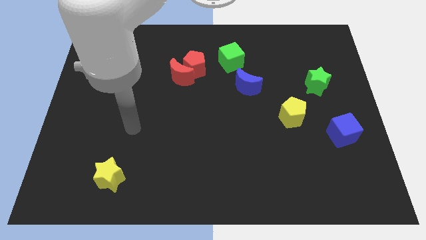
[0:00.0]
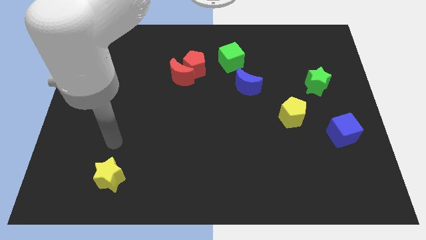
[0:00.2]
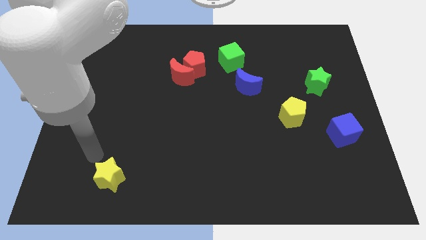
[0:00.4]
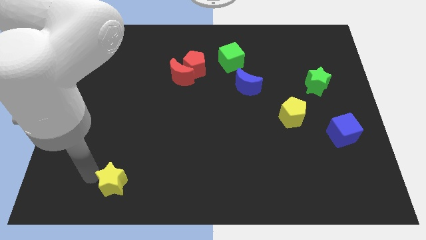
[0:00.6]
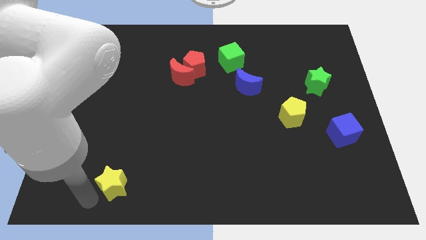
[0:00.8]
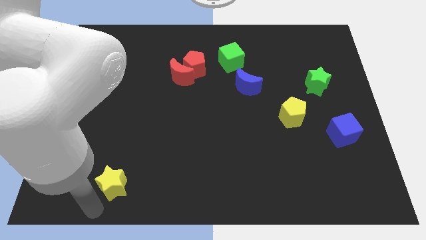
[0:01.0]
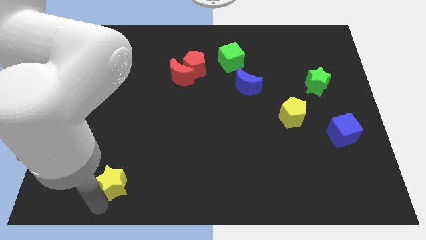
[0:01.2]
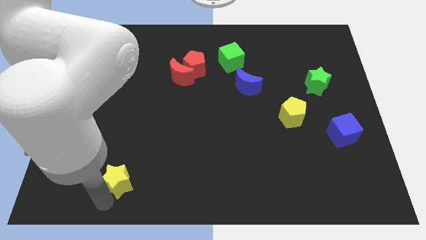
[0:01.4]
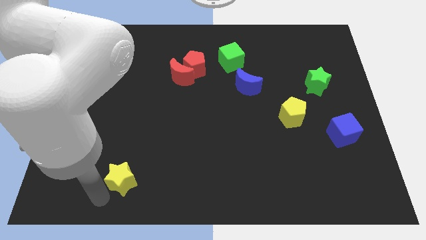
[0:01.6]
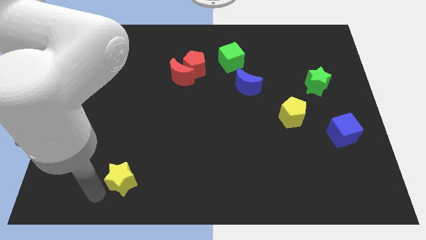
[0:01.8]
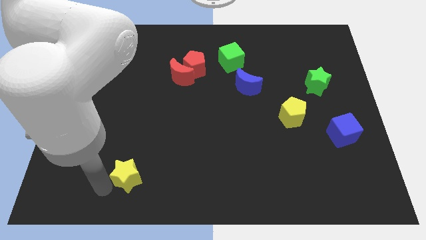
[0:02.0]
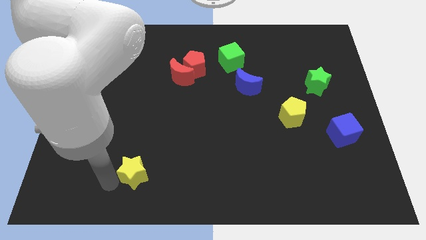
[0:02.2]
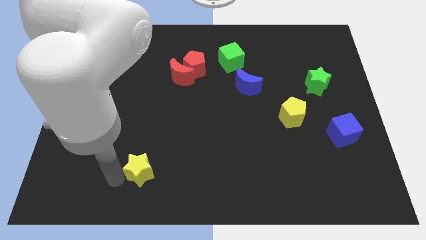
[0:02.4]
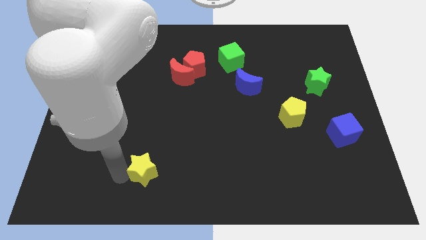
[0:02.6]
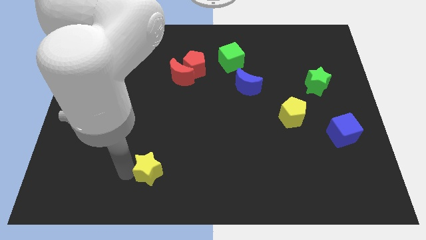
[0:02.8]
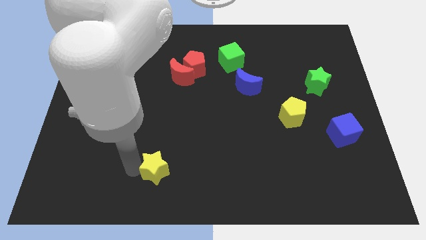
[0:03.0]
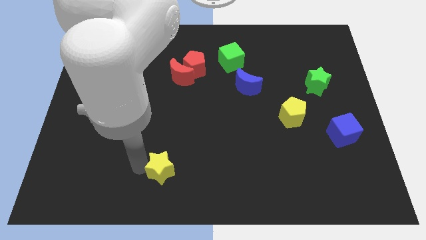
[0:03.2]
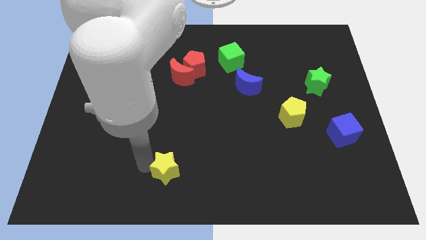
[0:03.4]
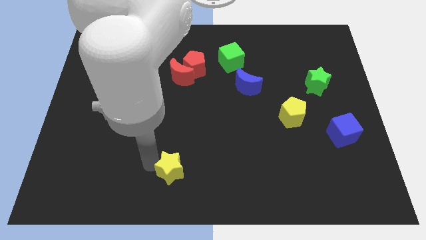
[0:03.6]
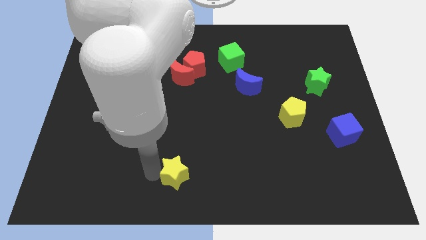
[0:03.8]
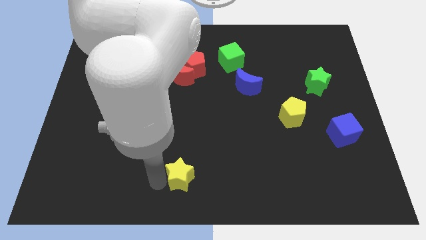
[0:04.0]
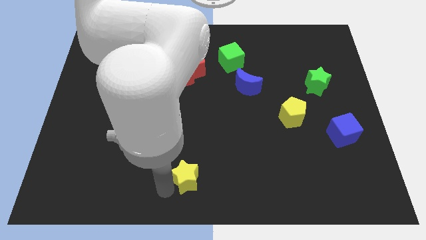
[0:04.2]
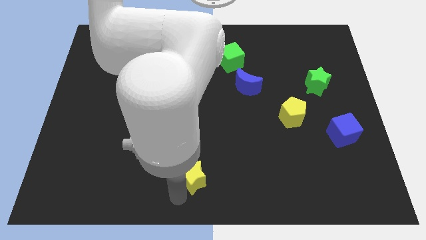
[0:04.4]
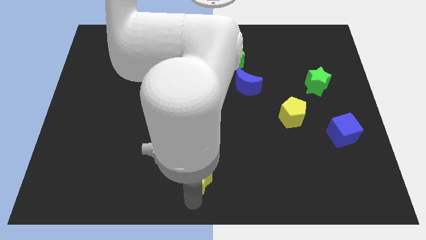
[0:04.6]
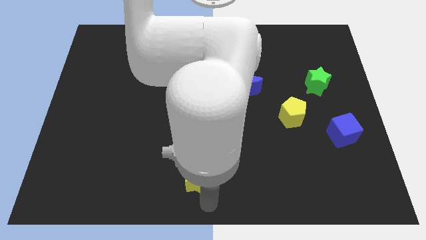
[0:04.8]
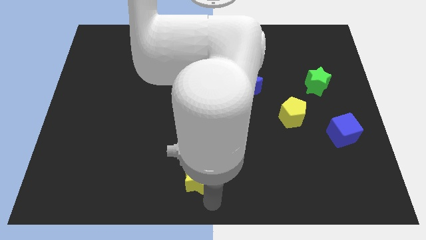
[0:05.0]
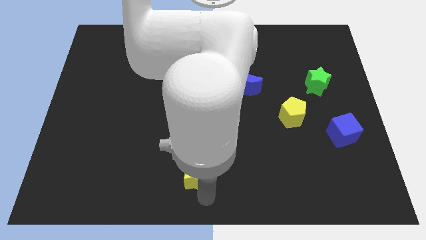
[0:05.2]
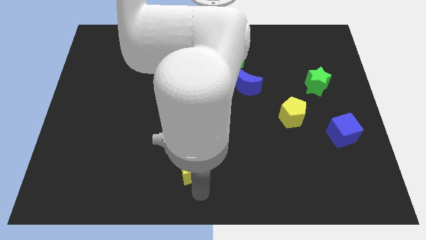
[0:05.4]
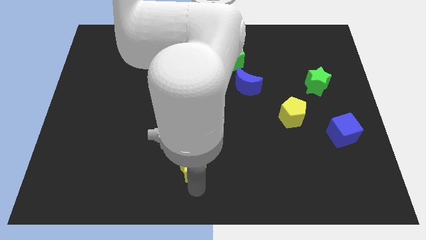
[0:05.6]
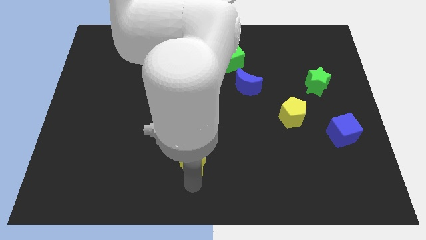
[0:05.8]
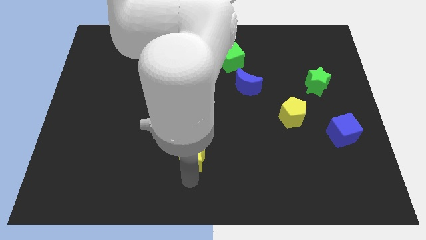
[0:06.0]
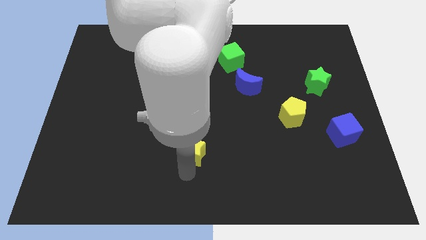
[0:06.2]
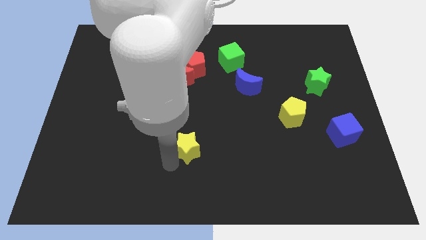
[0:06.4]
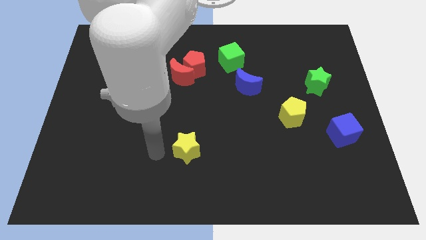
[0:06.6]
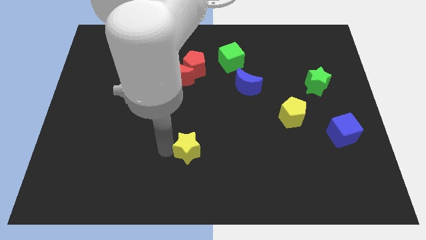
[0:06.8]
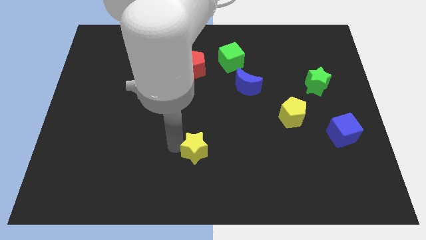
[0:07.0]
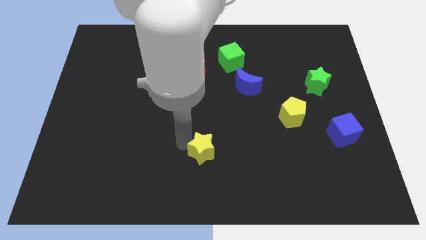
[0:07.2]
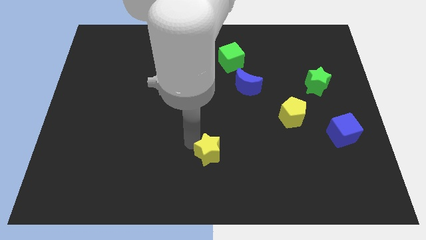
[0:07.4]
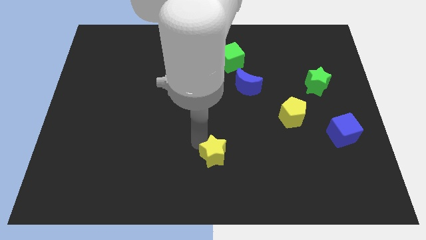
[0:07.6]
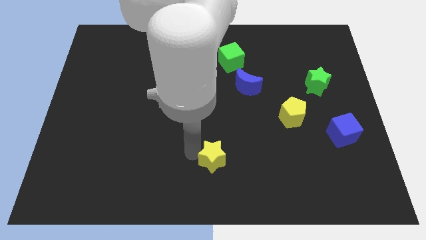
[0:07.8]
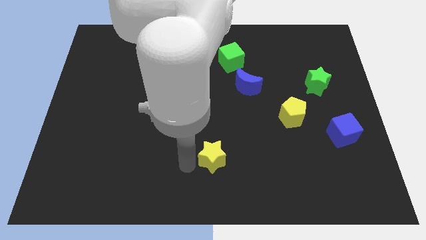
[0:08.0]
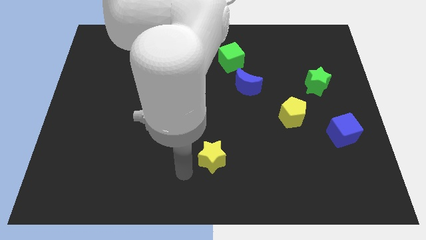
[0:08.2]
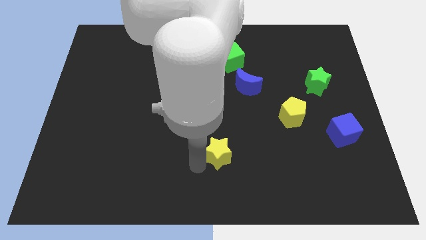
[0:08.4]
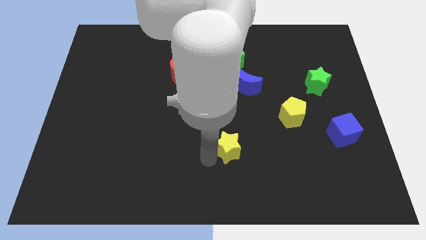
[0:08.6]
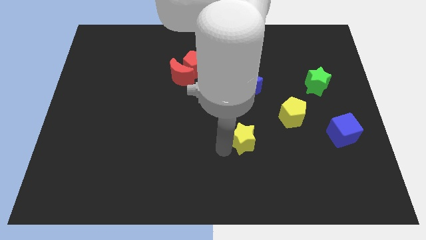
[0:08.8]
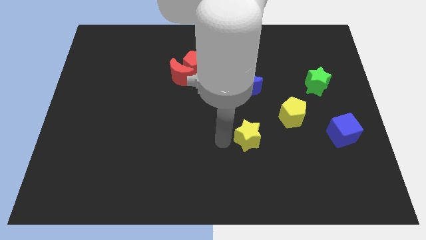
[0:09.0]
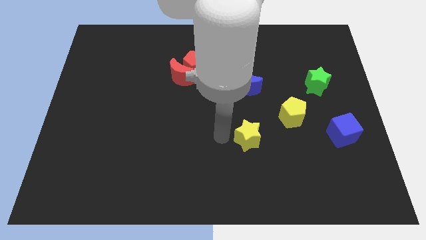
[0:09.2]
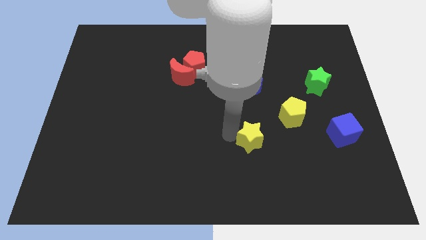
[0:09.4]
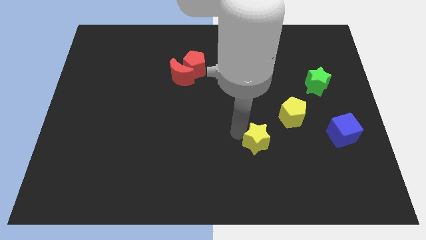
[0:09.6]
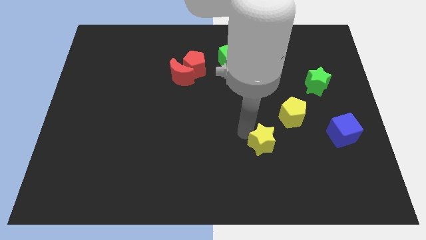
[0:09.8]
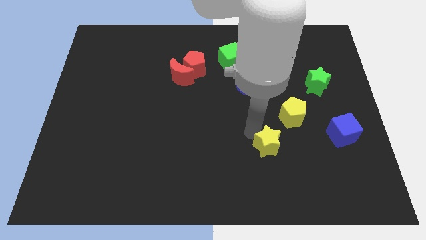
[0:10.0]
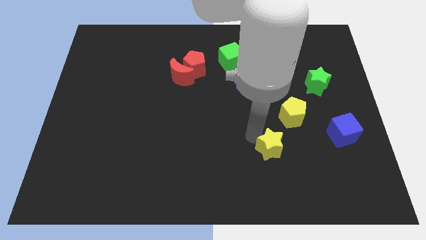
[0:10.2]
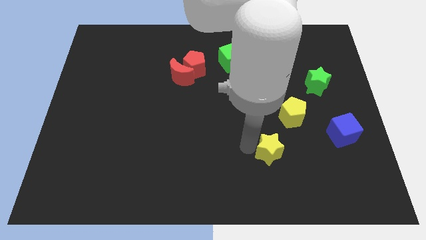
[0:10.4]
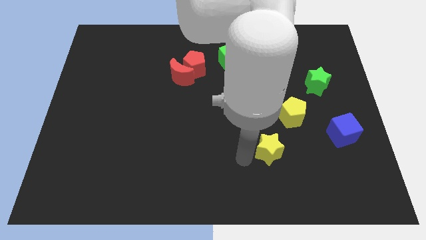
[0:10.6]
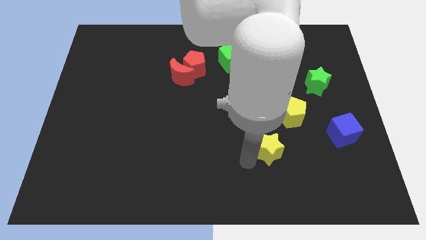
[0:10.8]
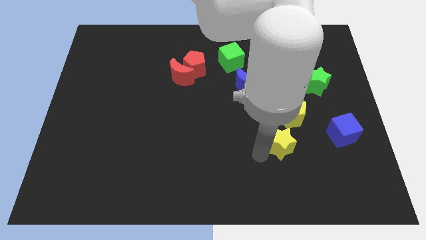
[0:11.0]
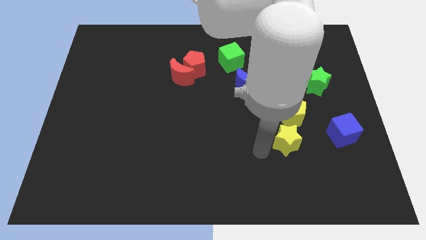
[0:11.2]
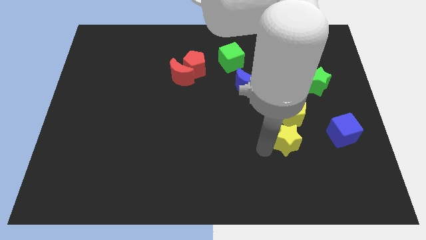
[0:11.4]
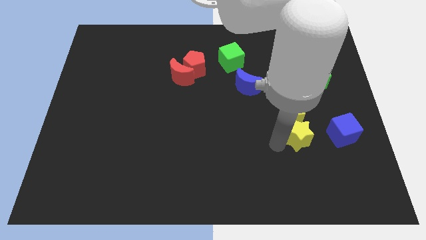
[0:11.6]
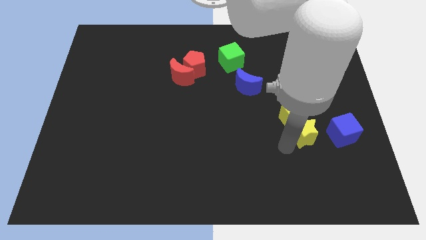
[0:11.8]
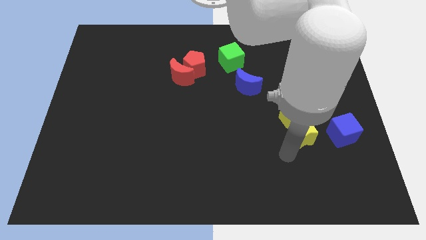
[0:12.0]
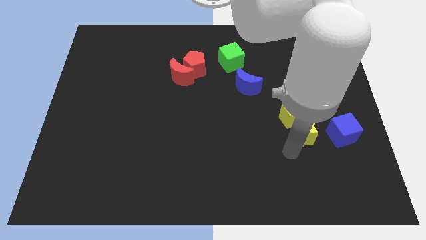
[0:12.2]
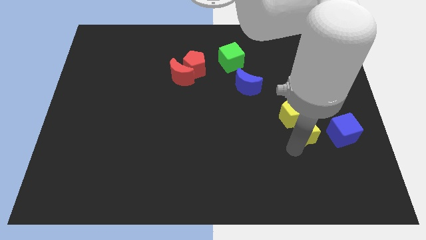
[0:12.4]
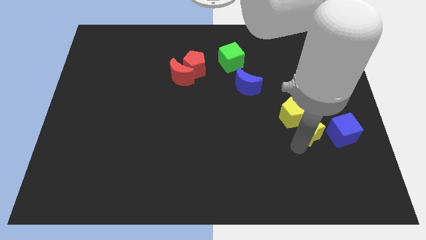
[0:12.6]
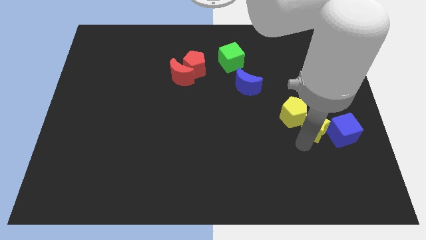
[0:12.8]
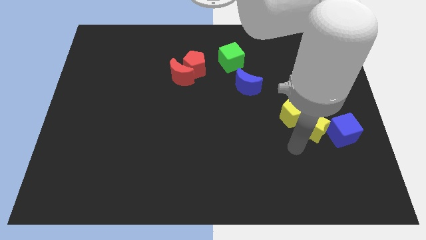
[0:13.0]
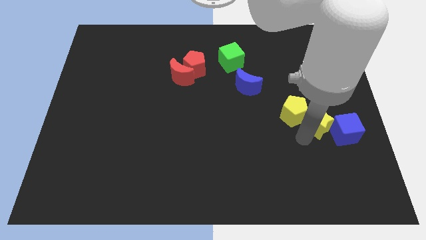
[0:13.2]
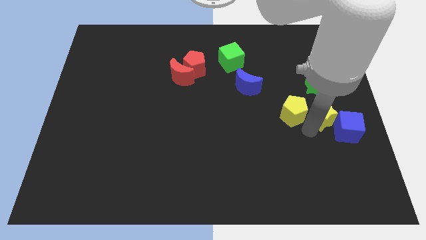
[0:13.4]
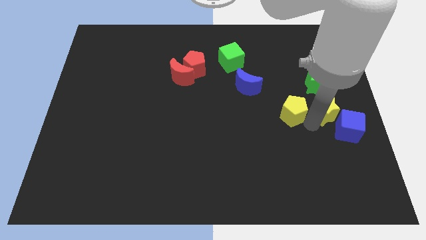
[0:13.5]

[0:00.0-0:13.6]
slide the yellow star to the right side
